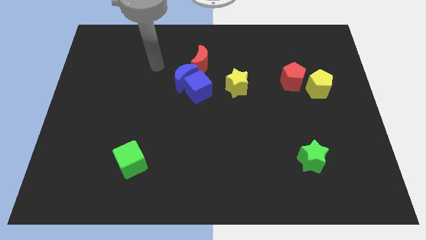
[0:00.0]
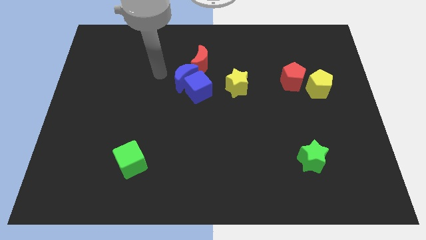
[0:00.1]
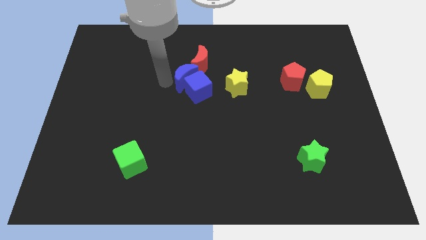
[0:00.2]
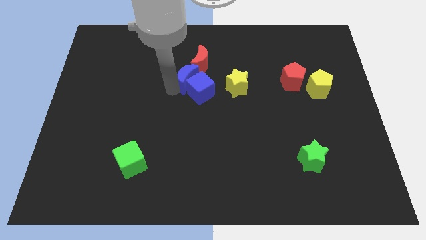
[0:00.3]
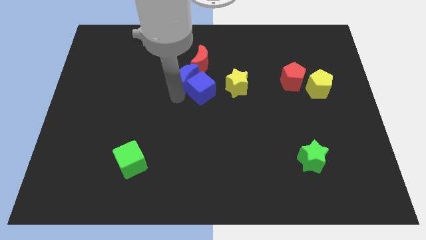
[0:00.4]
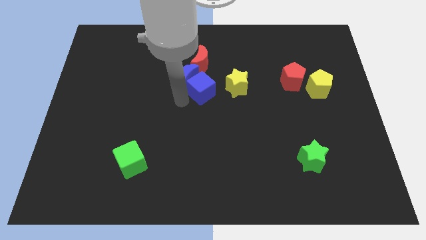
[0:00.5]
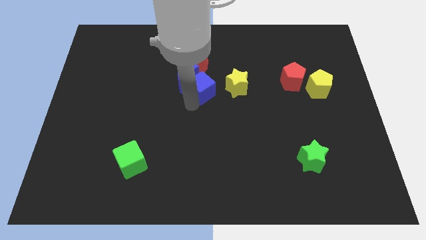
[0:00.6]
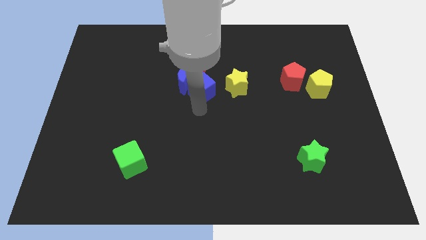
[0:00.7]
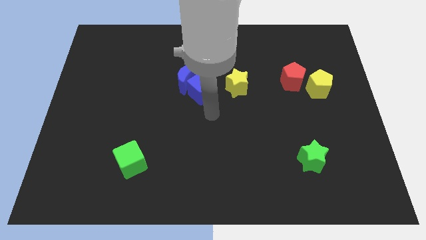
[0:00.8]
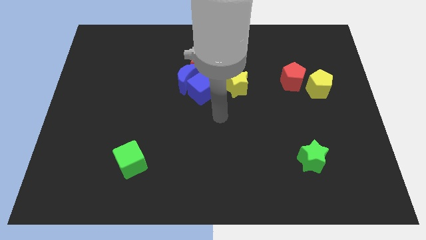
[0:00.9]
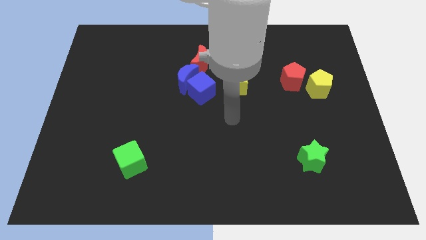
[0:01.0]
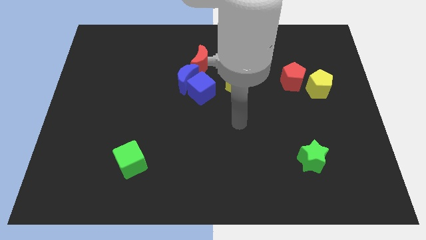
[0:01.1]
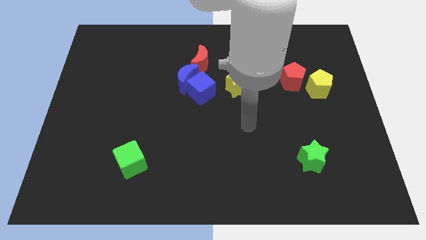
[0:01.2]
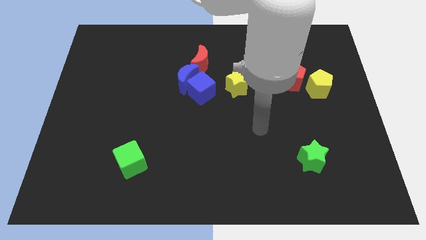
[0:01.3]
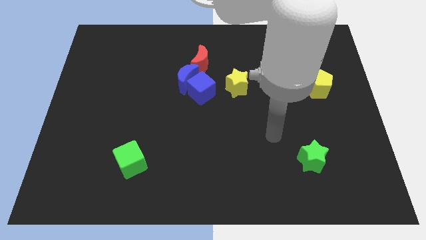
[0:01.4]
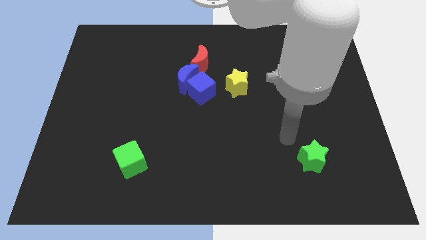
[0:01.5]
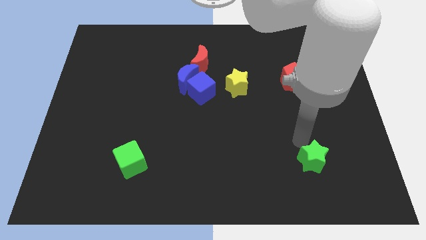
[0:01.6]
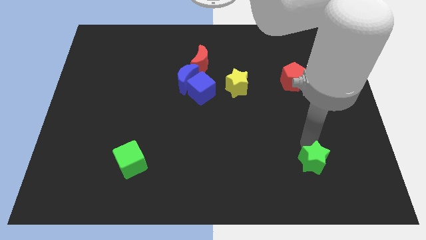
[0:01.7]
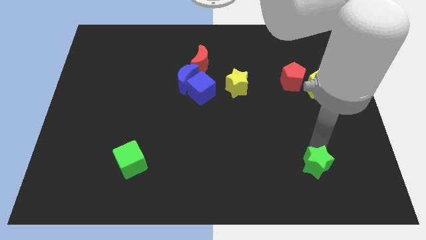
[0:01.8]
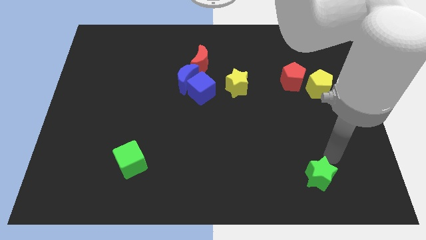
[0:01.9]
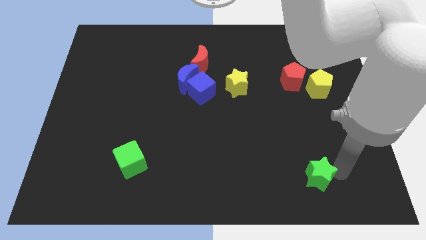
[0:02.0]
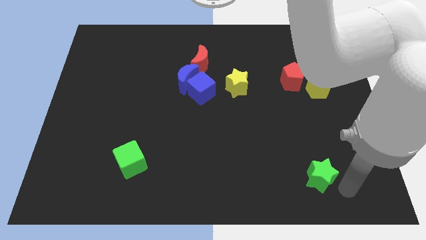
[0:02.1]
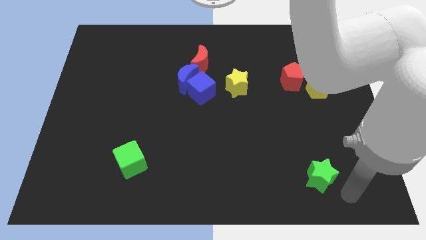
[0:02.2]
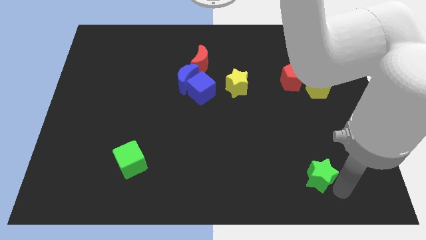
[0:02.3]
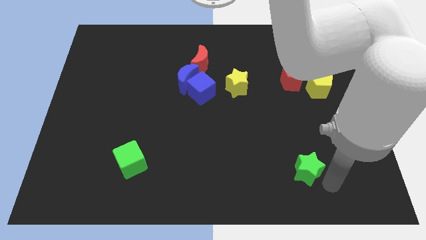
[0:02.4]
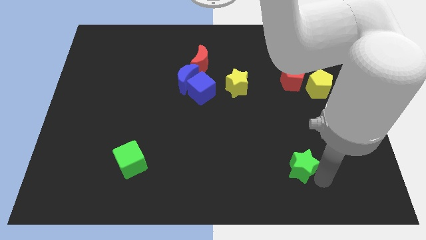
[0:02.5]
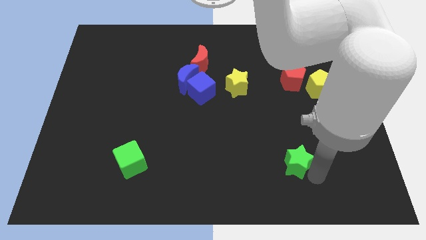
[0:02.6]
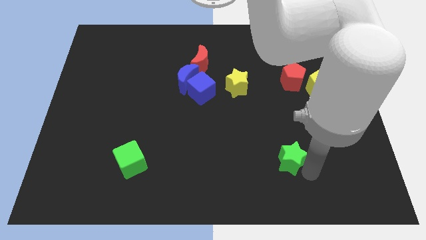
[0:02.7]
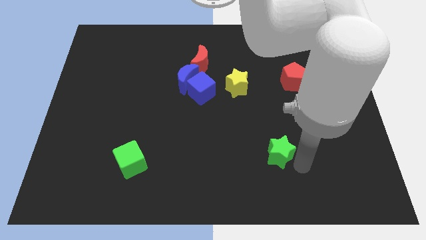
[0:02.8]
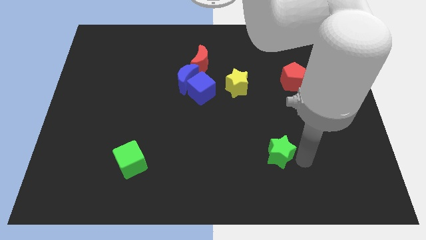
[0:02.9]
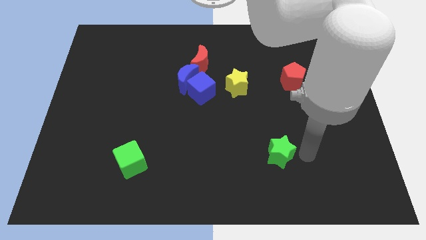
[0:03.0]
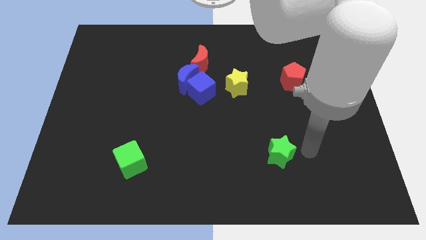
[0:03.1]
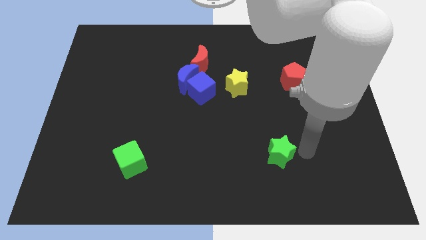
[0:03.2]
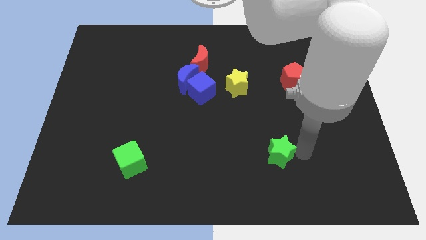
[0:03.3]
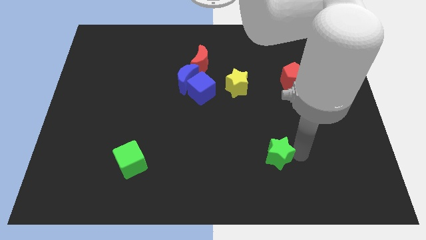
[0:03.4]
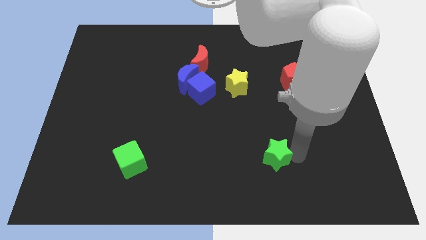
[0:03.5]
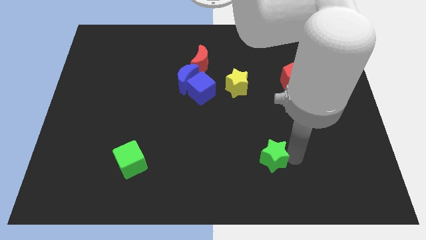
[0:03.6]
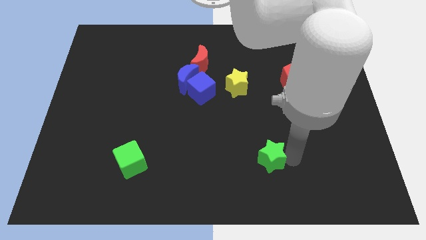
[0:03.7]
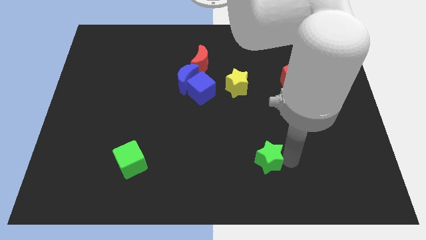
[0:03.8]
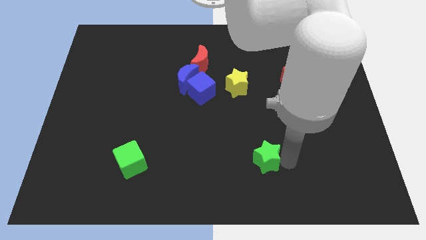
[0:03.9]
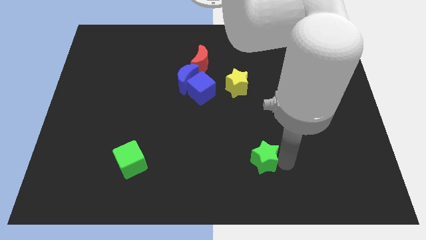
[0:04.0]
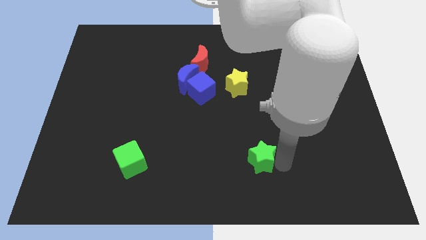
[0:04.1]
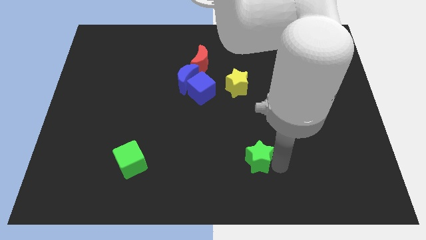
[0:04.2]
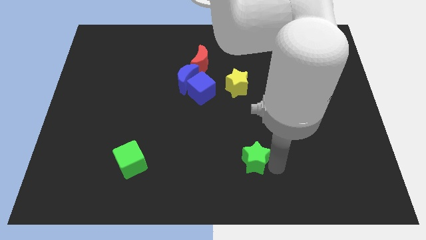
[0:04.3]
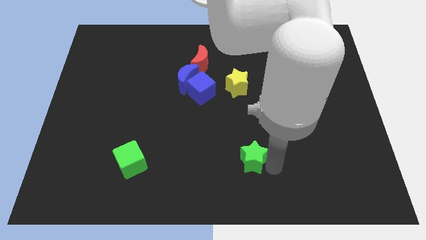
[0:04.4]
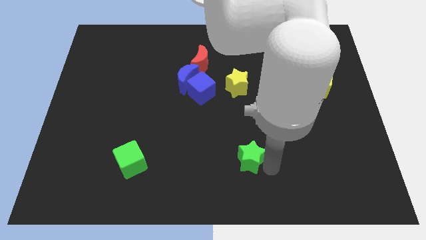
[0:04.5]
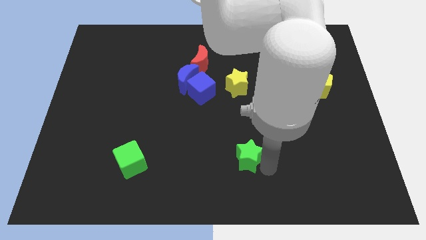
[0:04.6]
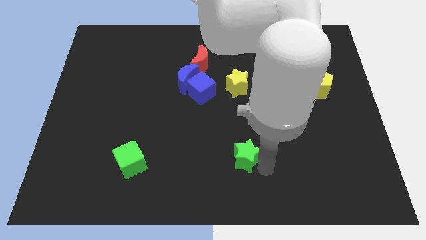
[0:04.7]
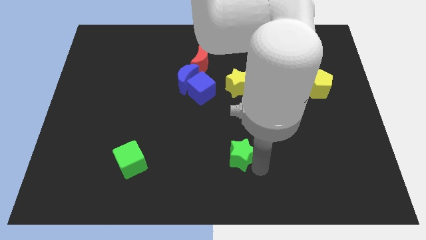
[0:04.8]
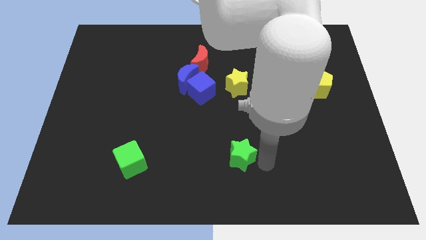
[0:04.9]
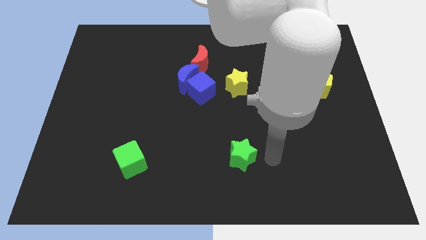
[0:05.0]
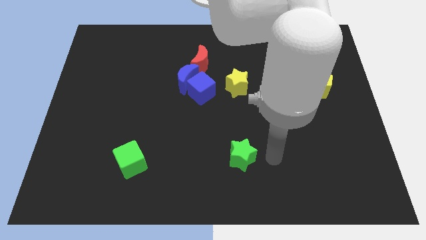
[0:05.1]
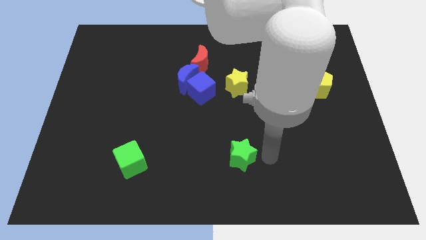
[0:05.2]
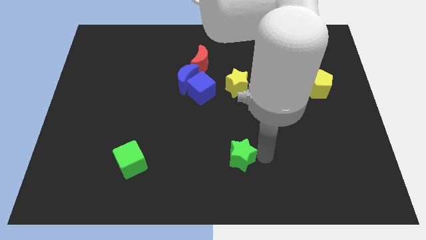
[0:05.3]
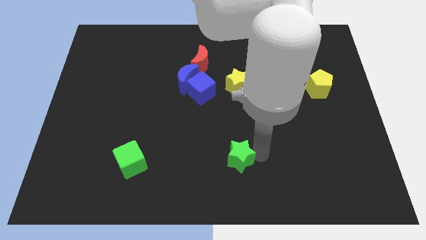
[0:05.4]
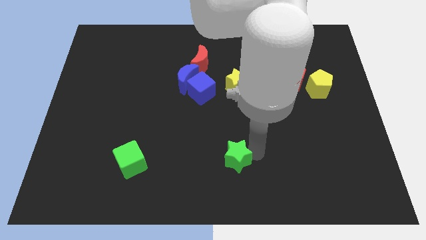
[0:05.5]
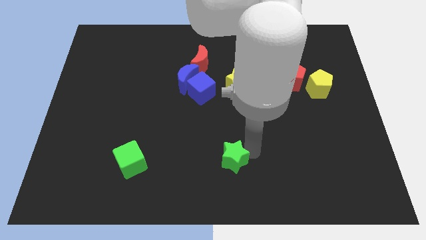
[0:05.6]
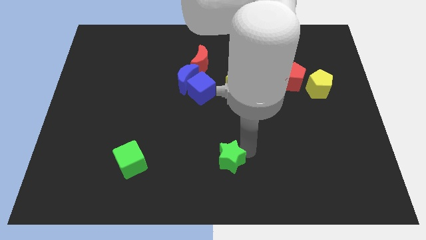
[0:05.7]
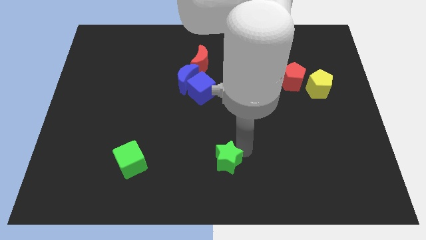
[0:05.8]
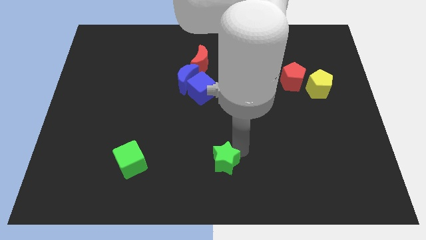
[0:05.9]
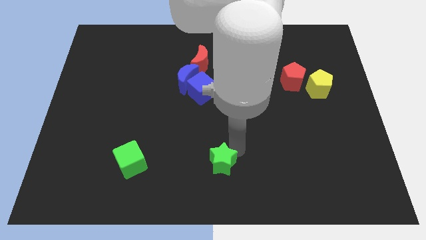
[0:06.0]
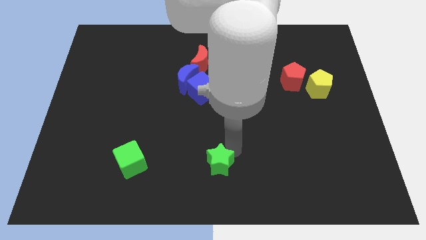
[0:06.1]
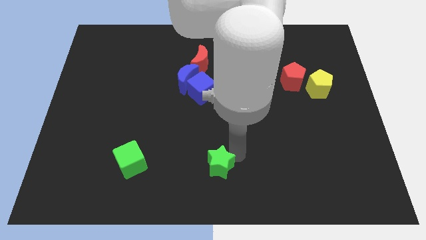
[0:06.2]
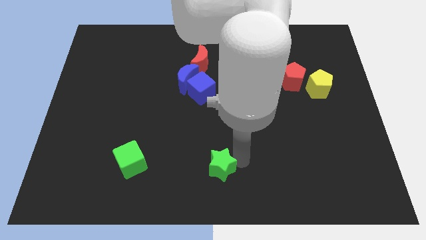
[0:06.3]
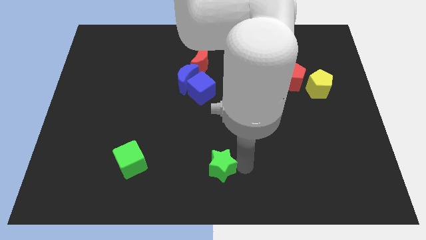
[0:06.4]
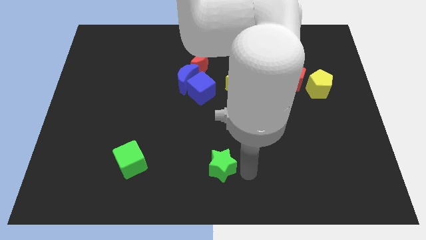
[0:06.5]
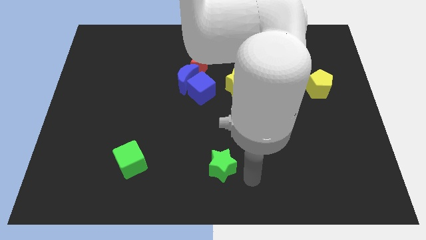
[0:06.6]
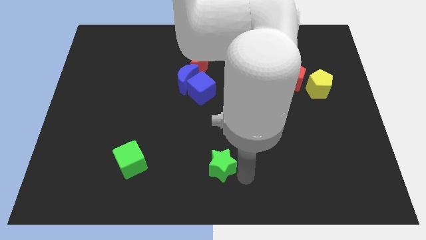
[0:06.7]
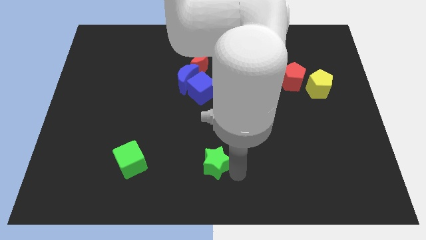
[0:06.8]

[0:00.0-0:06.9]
push the green star left

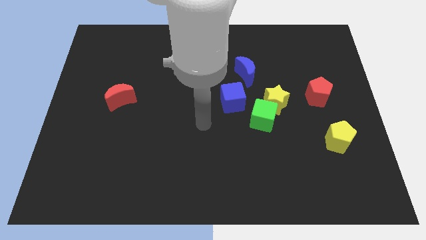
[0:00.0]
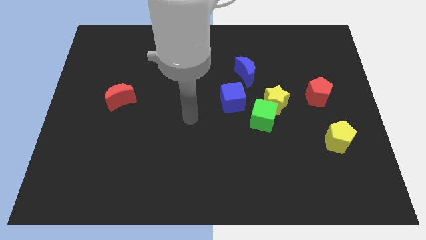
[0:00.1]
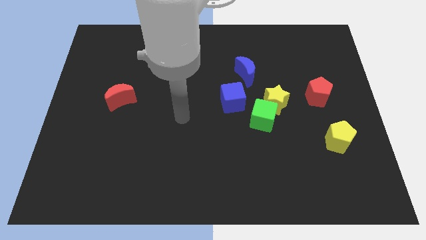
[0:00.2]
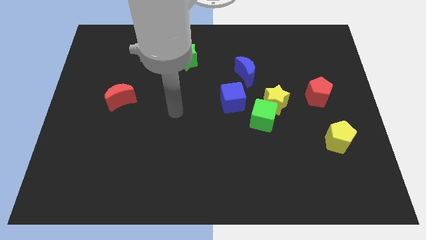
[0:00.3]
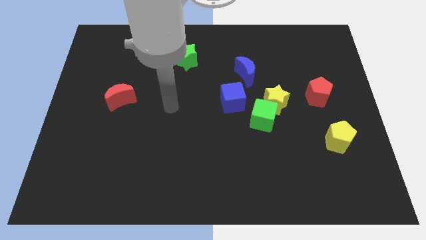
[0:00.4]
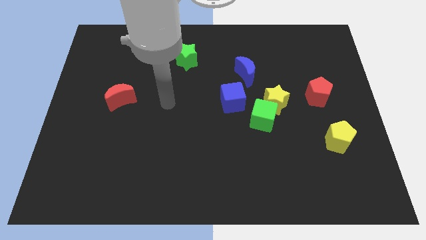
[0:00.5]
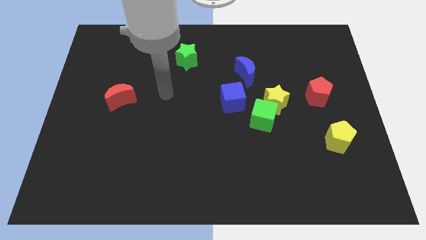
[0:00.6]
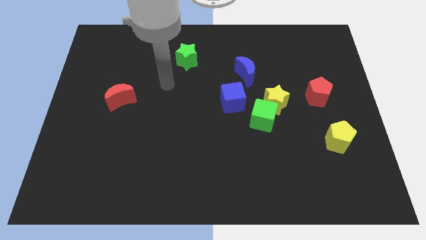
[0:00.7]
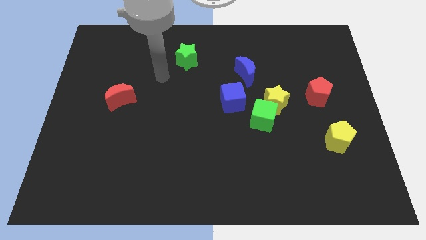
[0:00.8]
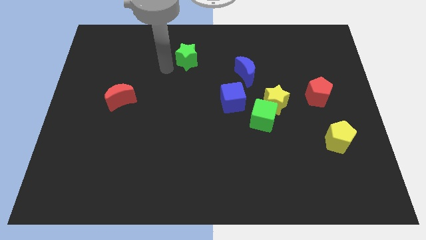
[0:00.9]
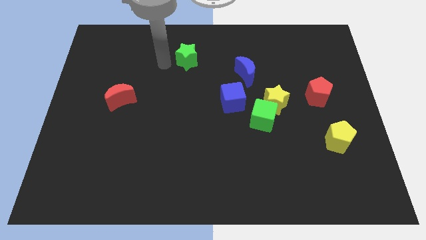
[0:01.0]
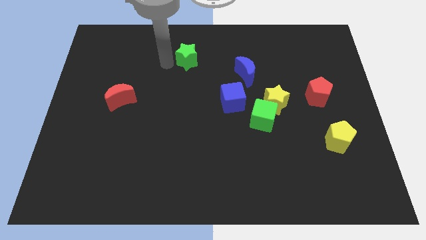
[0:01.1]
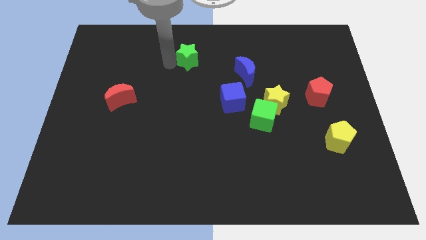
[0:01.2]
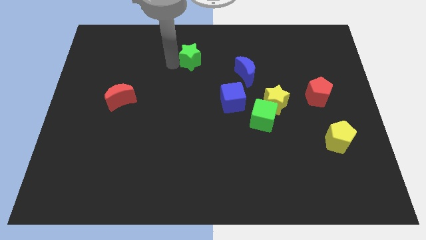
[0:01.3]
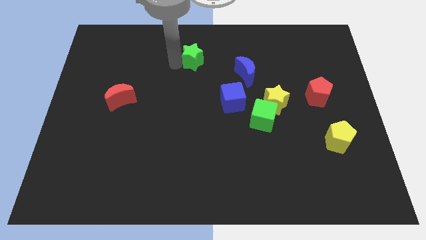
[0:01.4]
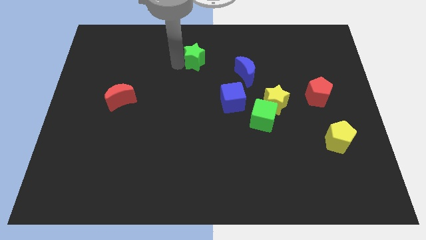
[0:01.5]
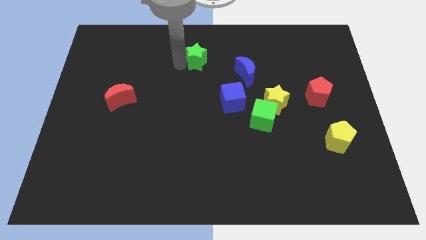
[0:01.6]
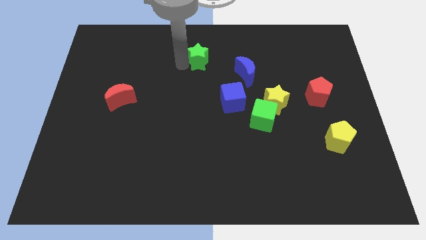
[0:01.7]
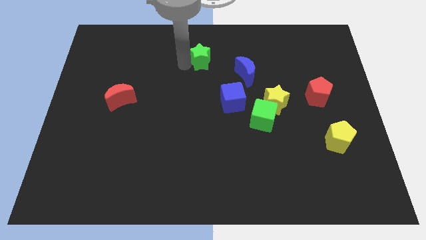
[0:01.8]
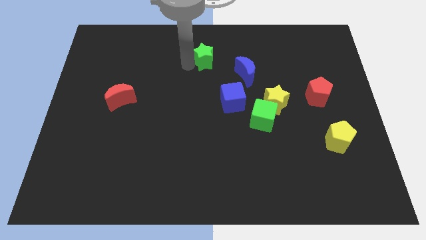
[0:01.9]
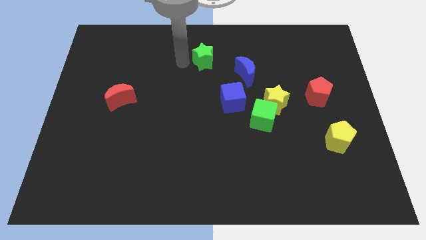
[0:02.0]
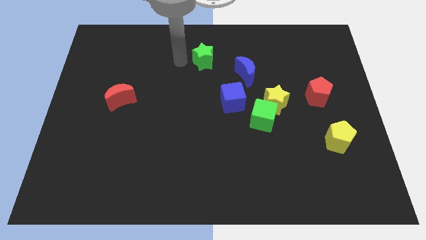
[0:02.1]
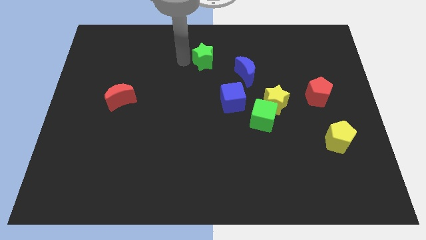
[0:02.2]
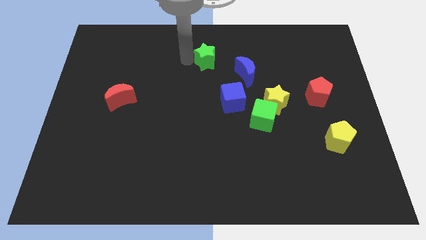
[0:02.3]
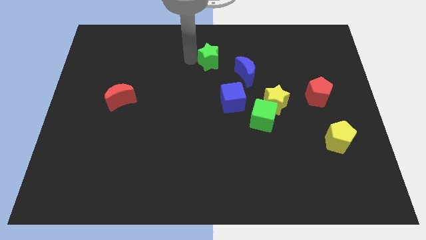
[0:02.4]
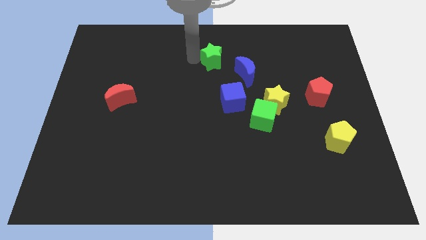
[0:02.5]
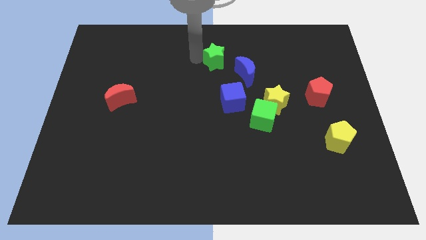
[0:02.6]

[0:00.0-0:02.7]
push the green star right a little bit
